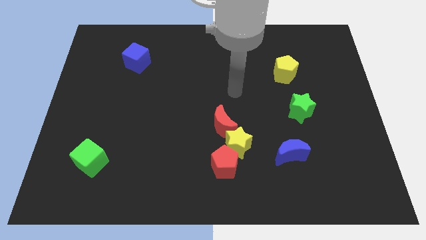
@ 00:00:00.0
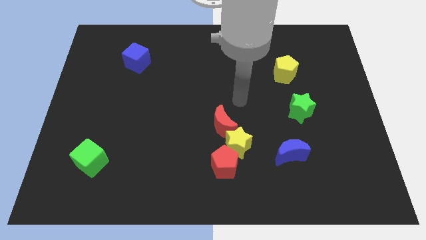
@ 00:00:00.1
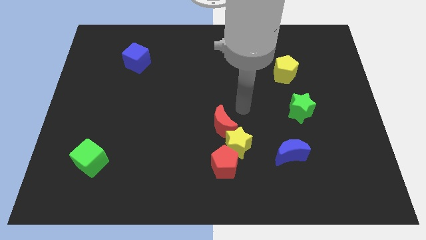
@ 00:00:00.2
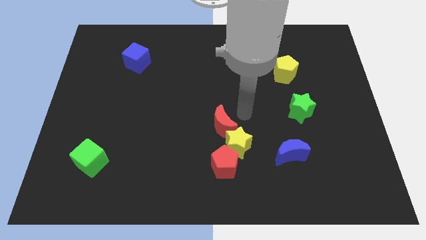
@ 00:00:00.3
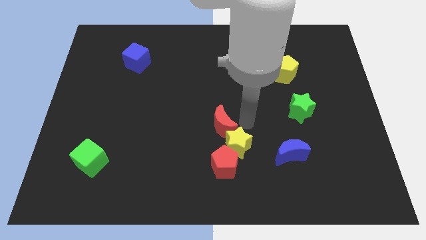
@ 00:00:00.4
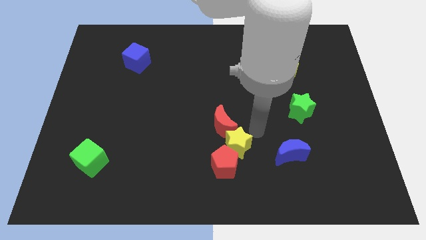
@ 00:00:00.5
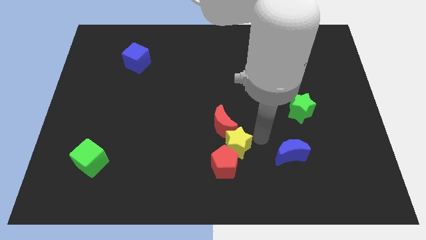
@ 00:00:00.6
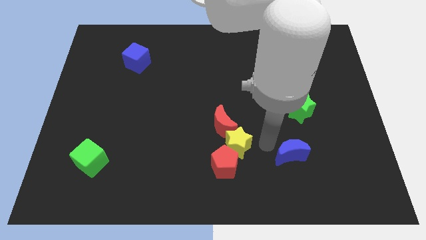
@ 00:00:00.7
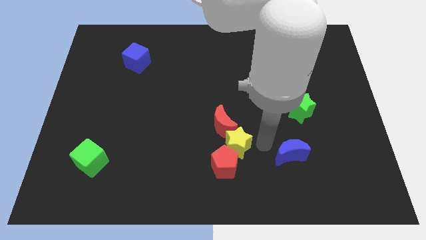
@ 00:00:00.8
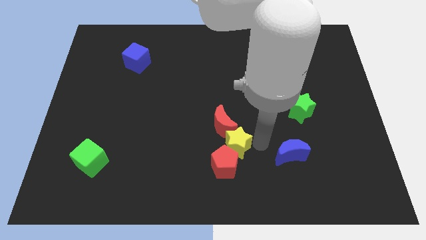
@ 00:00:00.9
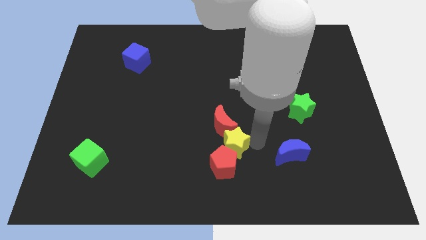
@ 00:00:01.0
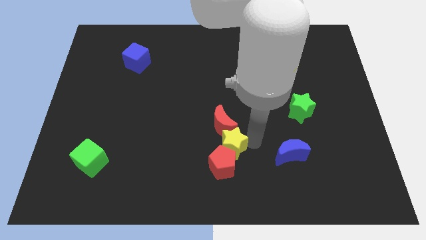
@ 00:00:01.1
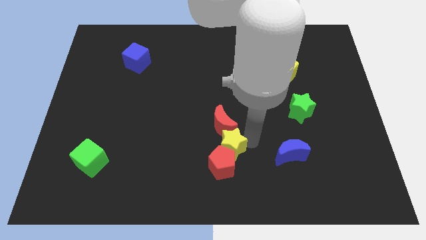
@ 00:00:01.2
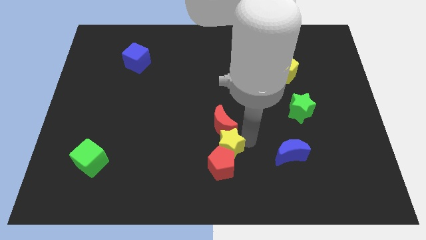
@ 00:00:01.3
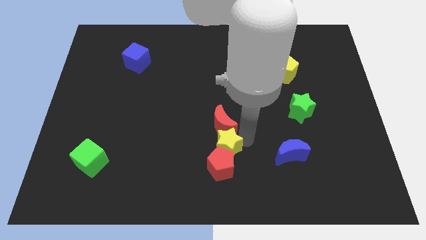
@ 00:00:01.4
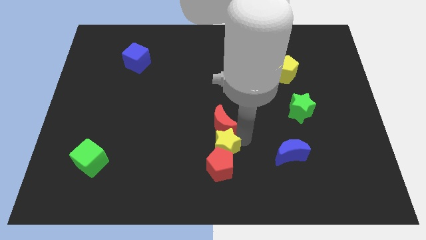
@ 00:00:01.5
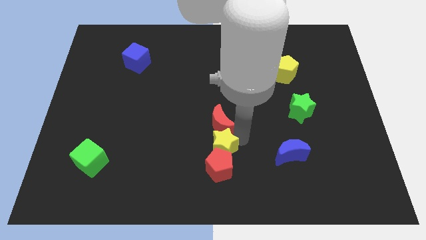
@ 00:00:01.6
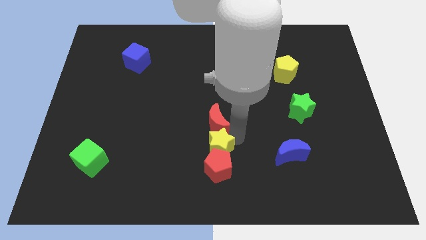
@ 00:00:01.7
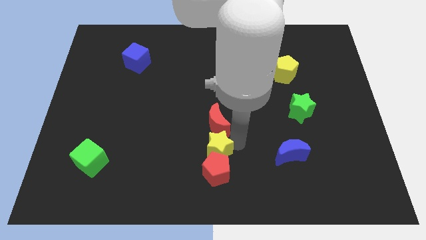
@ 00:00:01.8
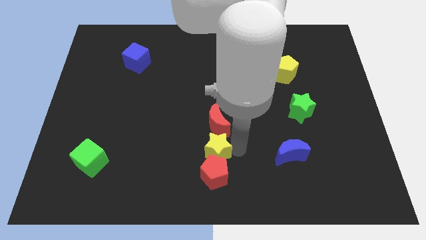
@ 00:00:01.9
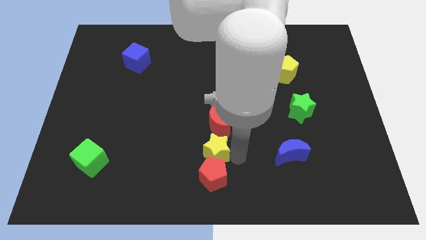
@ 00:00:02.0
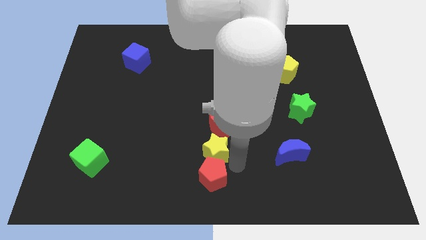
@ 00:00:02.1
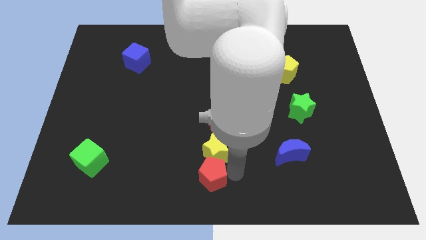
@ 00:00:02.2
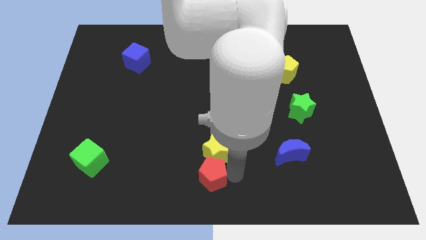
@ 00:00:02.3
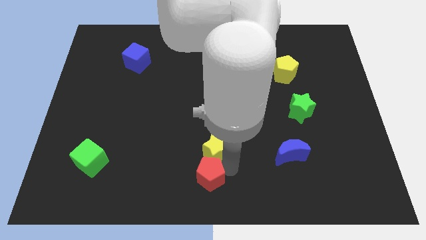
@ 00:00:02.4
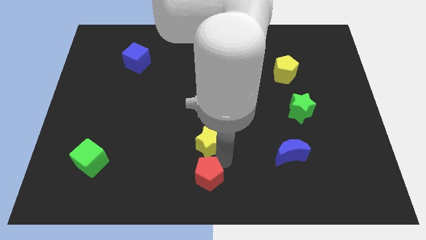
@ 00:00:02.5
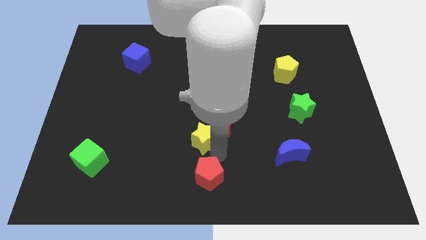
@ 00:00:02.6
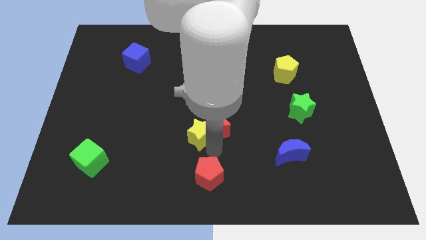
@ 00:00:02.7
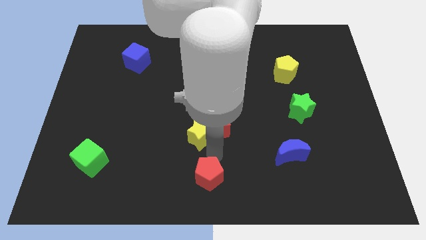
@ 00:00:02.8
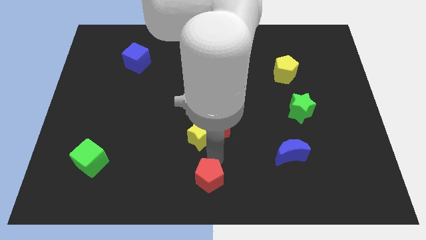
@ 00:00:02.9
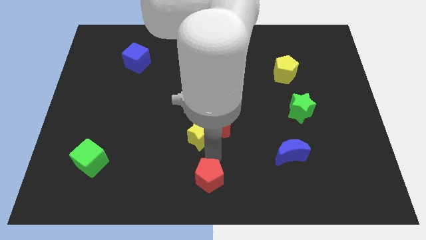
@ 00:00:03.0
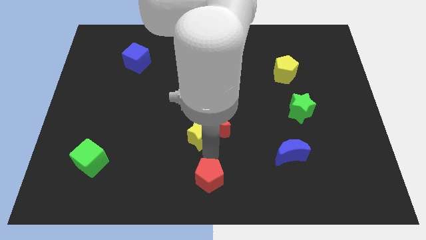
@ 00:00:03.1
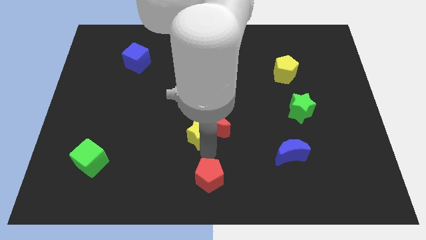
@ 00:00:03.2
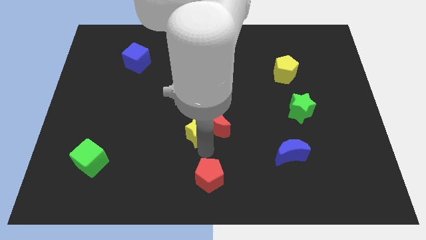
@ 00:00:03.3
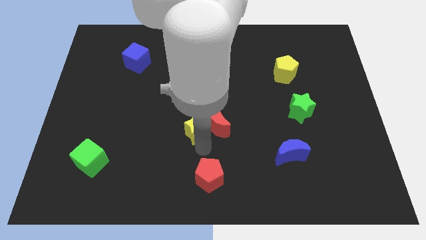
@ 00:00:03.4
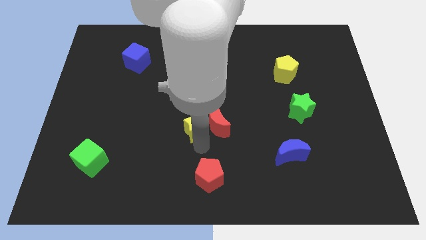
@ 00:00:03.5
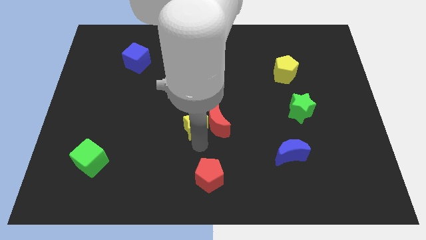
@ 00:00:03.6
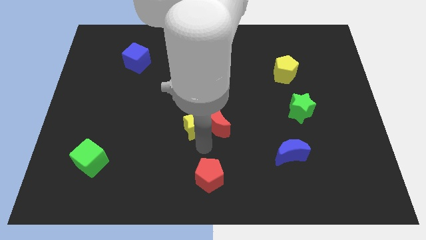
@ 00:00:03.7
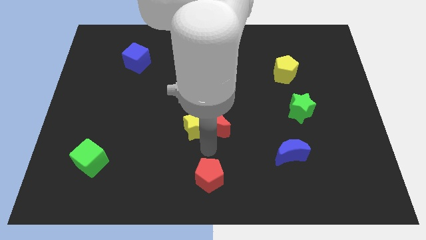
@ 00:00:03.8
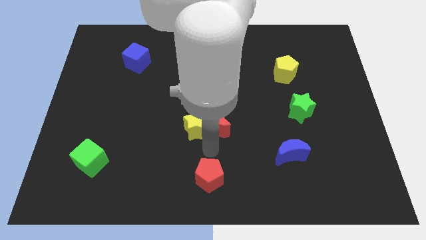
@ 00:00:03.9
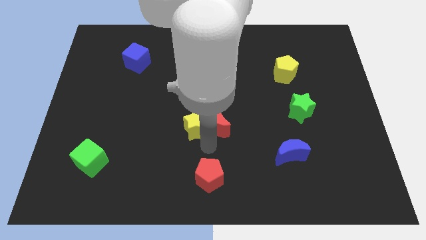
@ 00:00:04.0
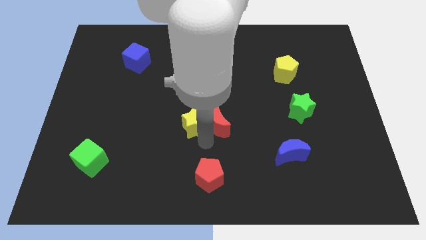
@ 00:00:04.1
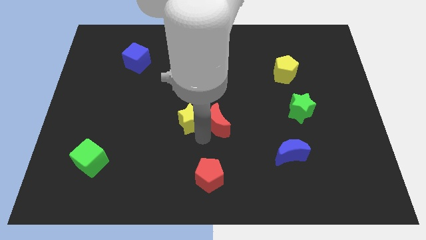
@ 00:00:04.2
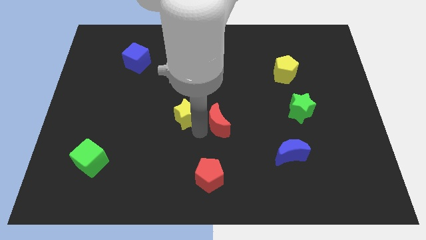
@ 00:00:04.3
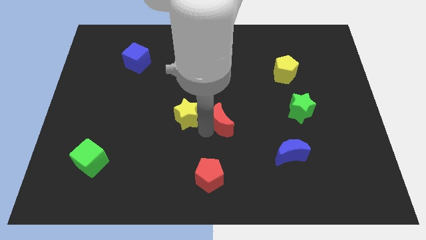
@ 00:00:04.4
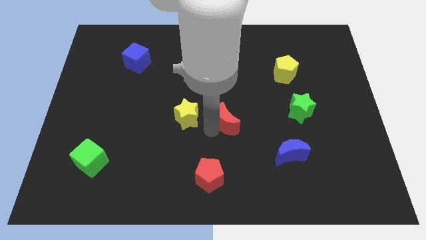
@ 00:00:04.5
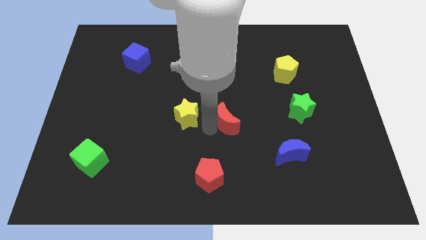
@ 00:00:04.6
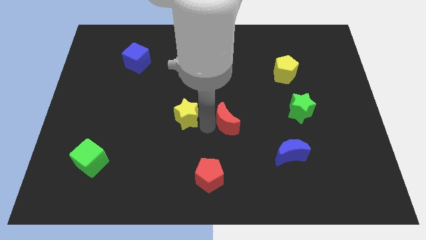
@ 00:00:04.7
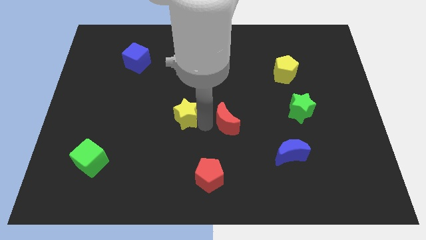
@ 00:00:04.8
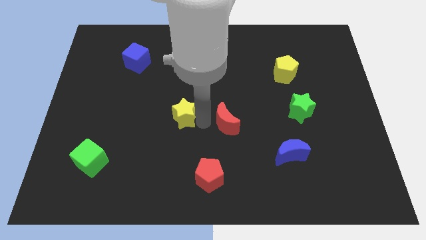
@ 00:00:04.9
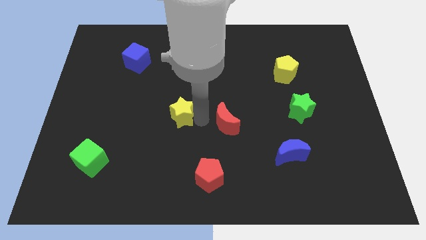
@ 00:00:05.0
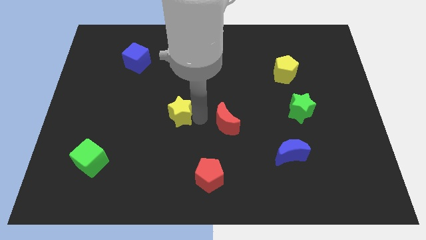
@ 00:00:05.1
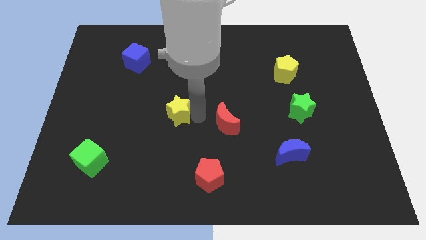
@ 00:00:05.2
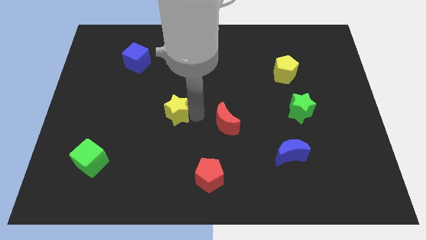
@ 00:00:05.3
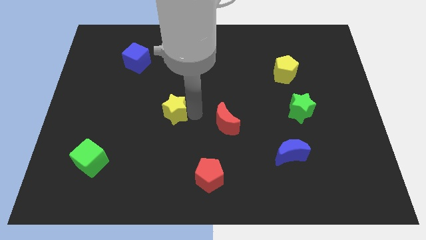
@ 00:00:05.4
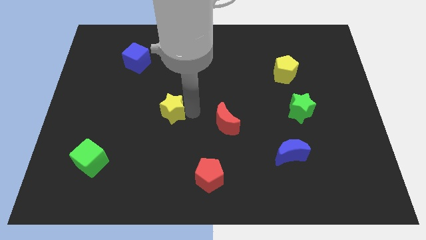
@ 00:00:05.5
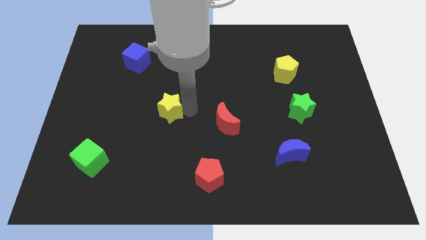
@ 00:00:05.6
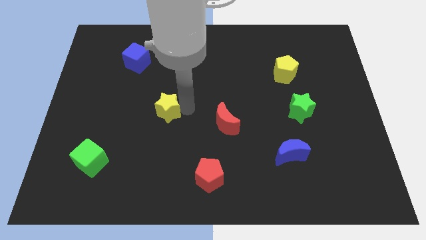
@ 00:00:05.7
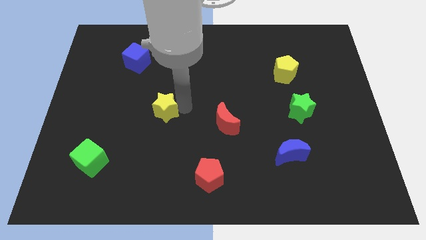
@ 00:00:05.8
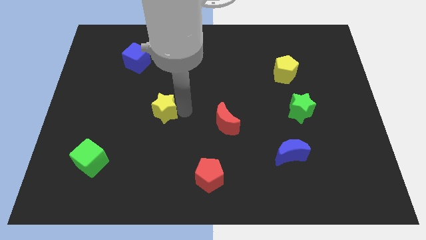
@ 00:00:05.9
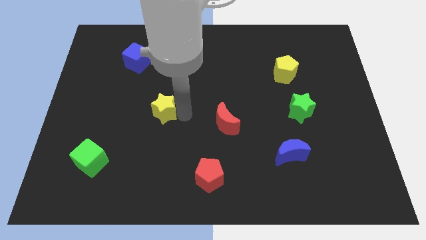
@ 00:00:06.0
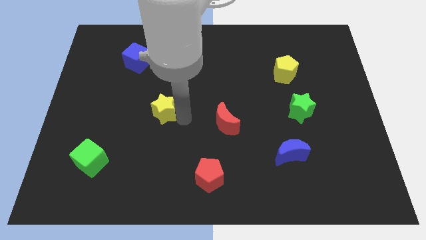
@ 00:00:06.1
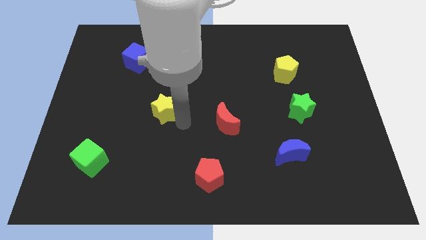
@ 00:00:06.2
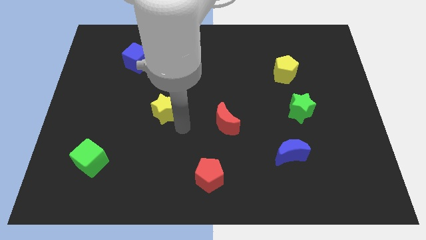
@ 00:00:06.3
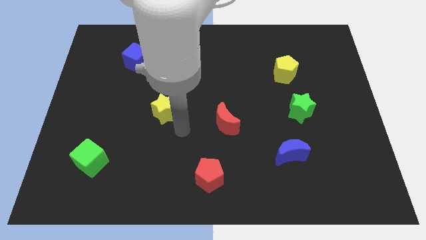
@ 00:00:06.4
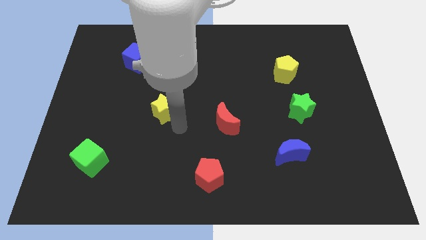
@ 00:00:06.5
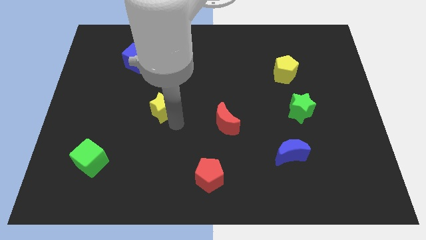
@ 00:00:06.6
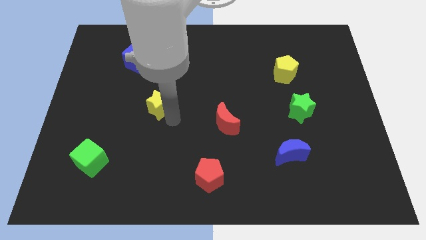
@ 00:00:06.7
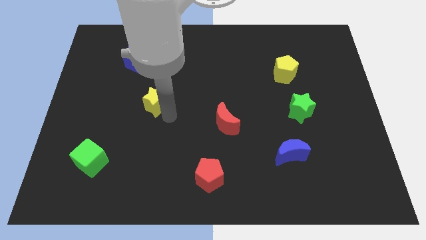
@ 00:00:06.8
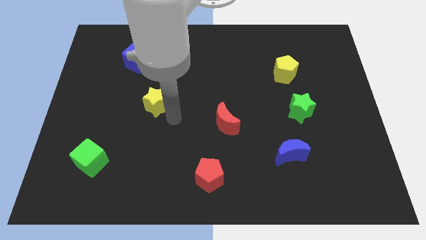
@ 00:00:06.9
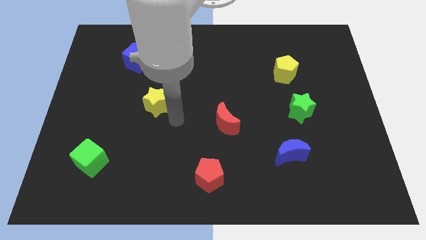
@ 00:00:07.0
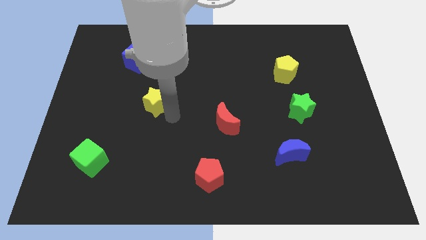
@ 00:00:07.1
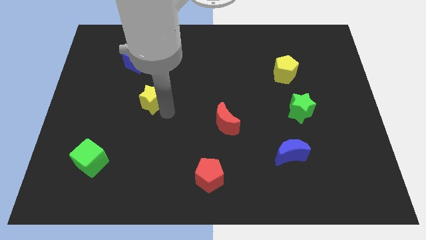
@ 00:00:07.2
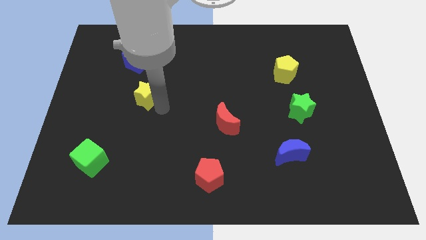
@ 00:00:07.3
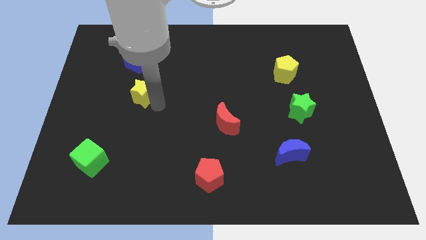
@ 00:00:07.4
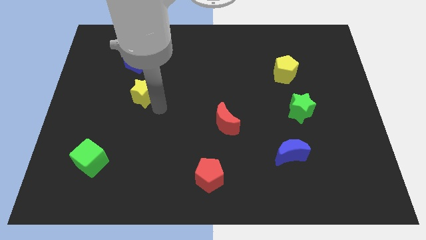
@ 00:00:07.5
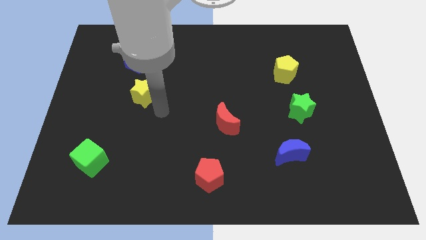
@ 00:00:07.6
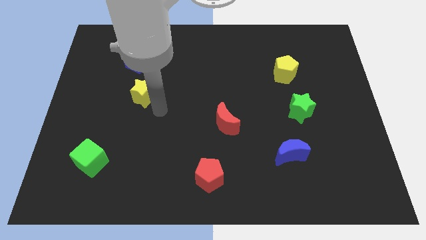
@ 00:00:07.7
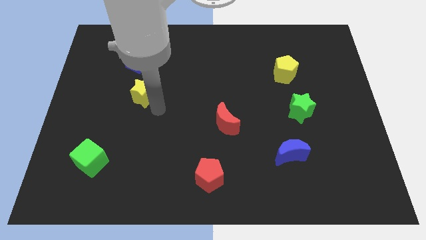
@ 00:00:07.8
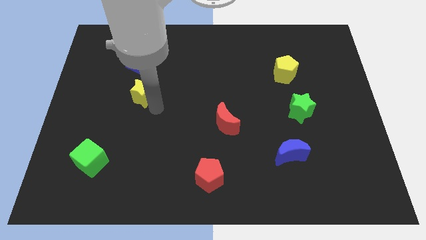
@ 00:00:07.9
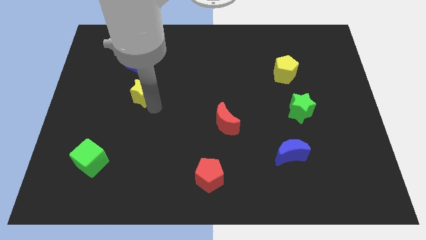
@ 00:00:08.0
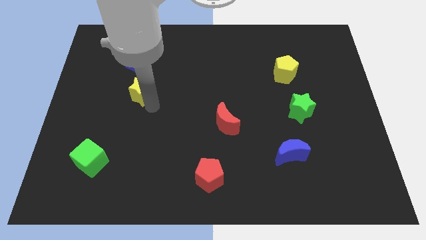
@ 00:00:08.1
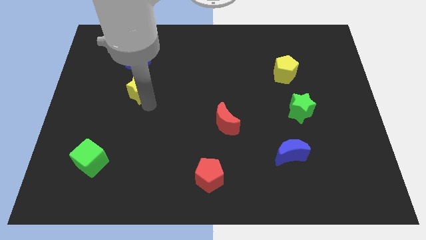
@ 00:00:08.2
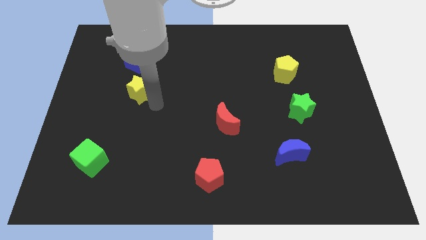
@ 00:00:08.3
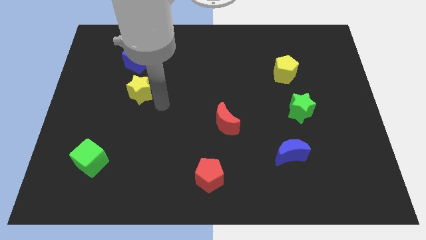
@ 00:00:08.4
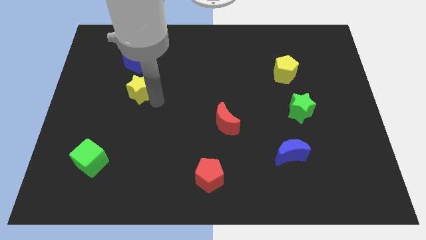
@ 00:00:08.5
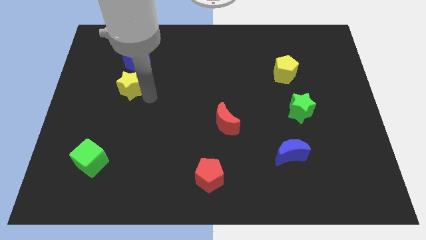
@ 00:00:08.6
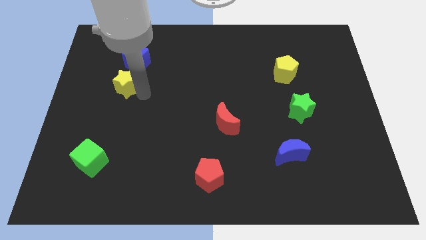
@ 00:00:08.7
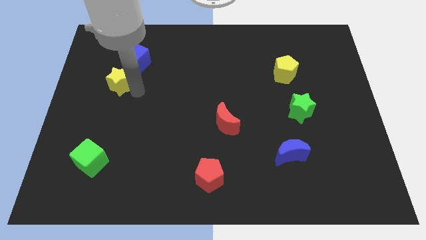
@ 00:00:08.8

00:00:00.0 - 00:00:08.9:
slide the yellow star diagonally down and to the left of the blue cube
